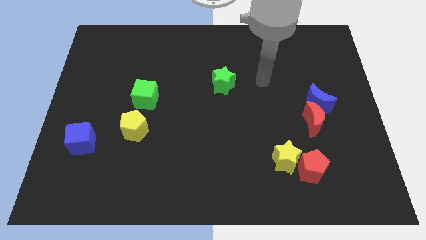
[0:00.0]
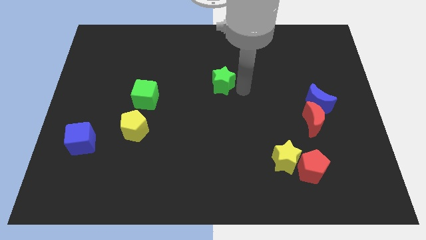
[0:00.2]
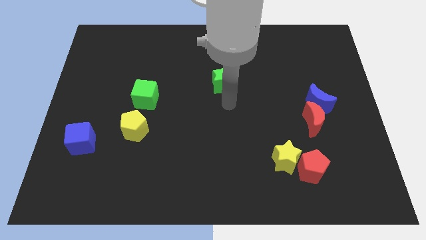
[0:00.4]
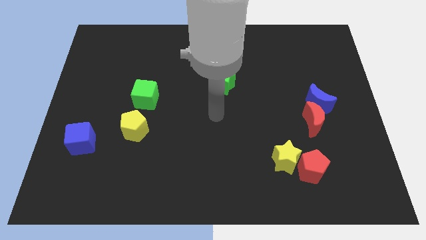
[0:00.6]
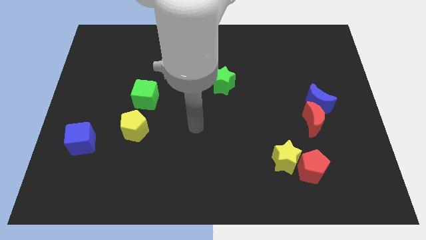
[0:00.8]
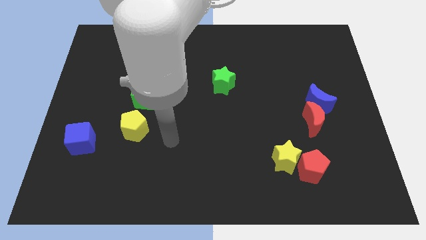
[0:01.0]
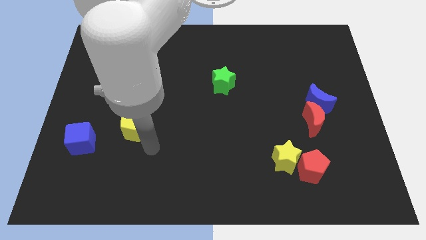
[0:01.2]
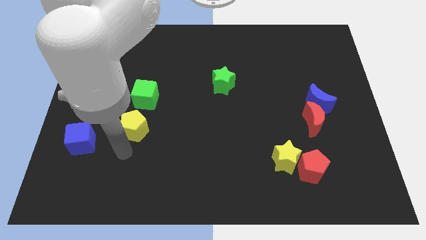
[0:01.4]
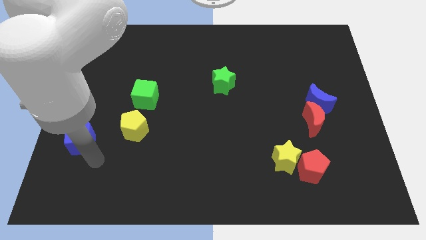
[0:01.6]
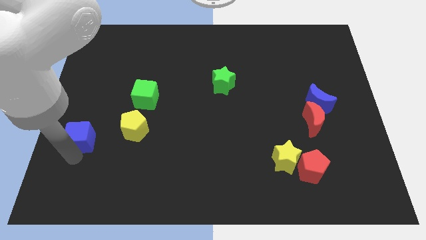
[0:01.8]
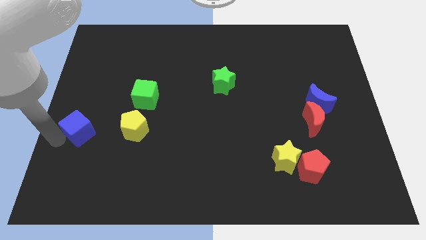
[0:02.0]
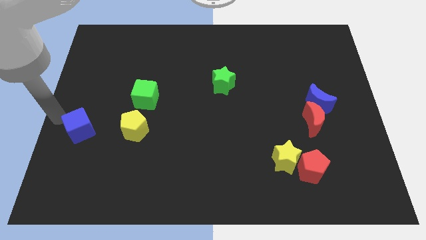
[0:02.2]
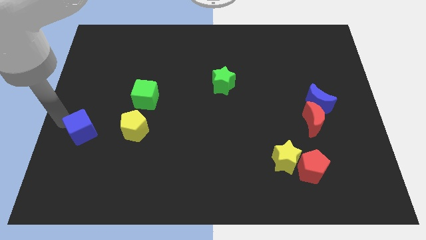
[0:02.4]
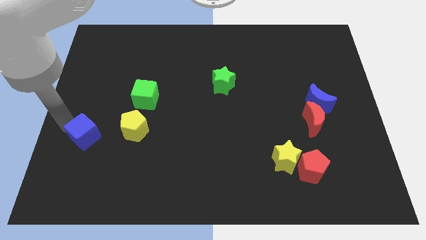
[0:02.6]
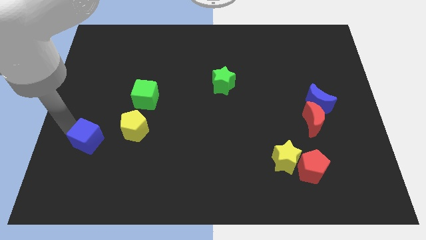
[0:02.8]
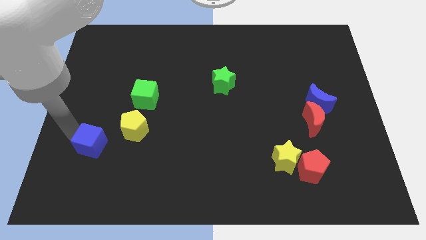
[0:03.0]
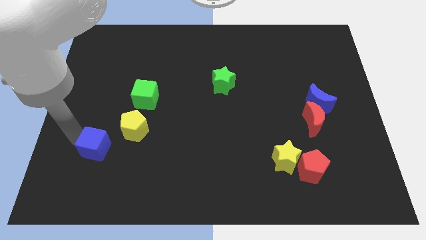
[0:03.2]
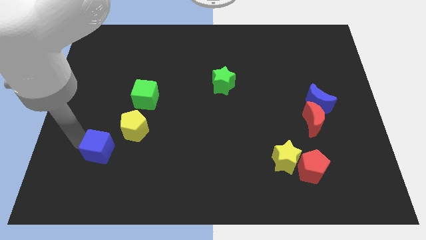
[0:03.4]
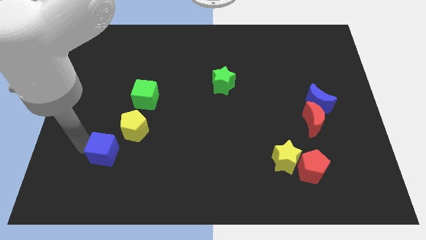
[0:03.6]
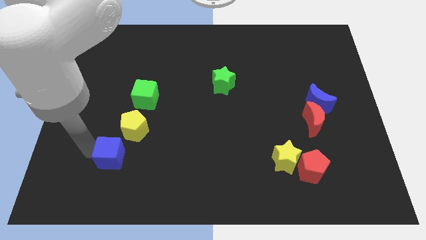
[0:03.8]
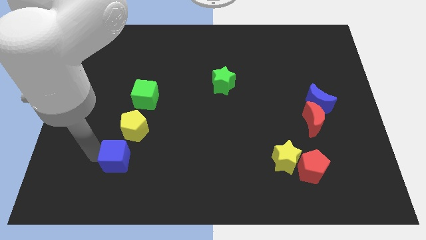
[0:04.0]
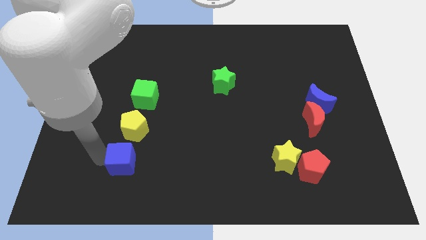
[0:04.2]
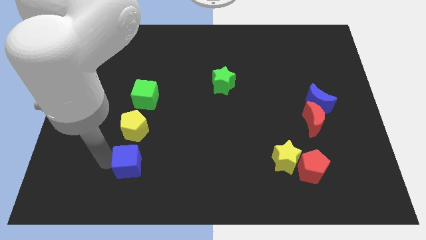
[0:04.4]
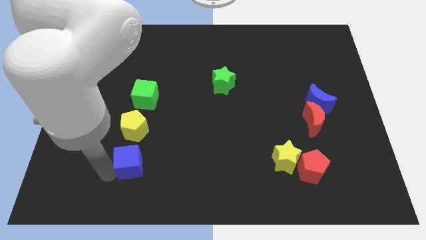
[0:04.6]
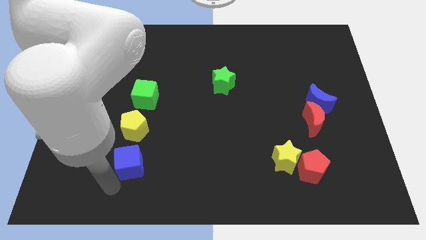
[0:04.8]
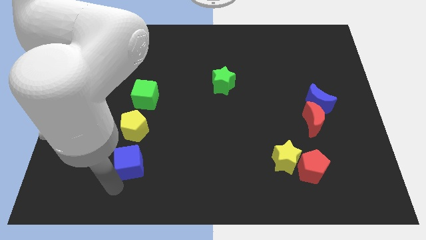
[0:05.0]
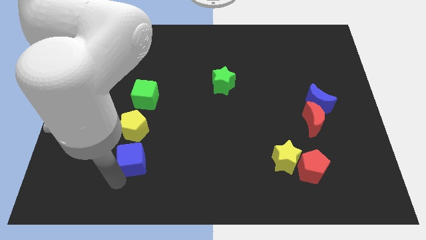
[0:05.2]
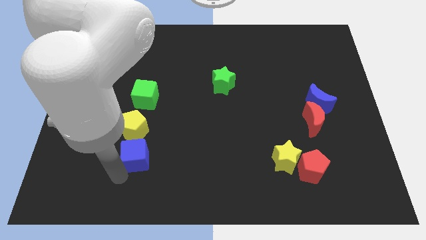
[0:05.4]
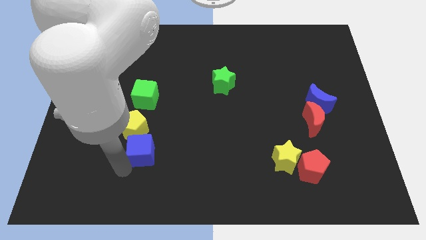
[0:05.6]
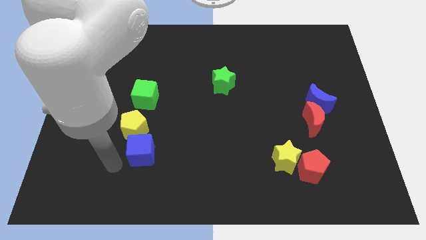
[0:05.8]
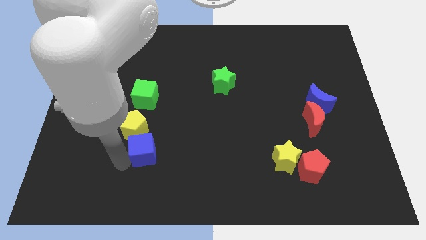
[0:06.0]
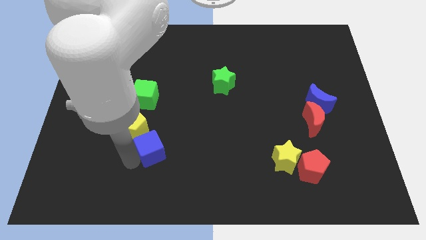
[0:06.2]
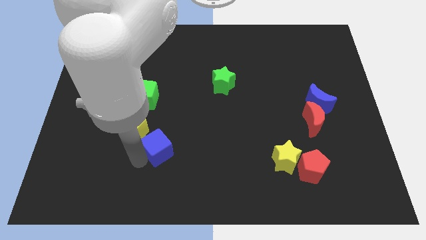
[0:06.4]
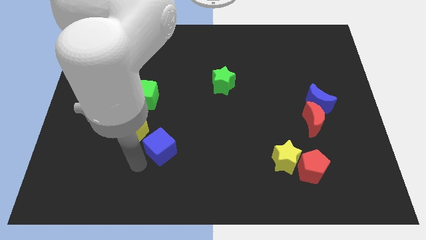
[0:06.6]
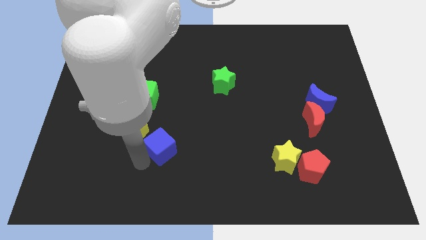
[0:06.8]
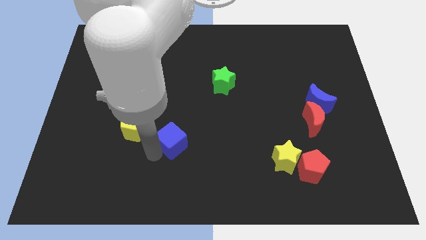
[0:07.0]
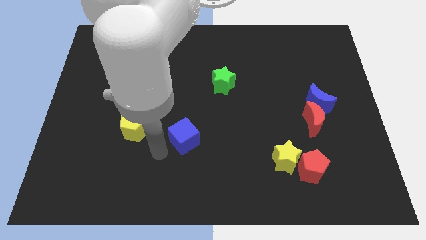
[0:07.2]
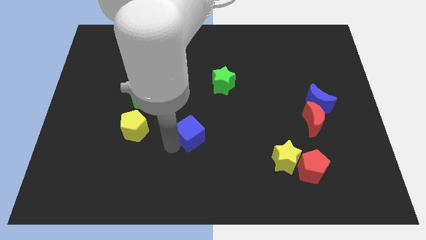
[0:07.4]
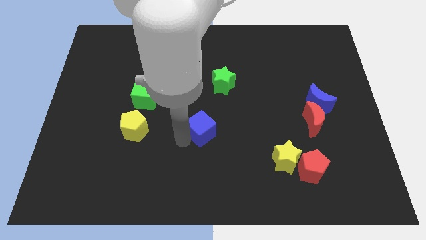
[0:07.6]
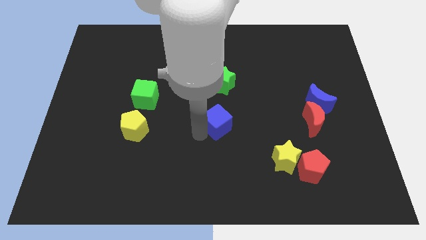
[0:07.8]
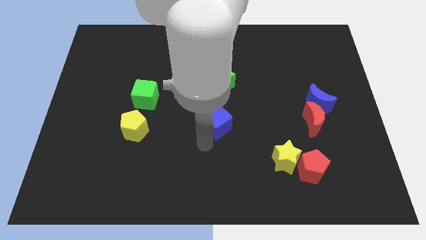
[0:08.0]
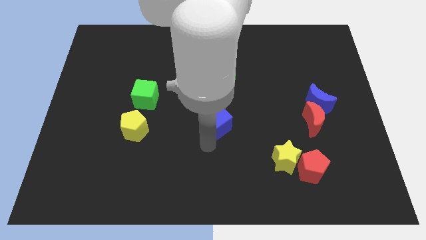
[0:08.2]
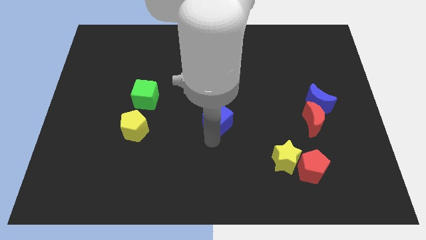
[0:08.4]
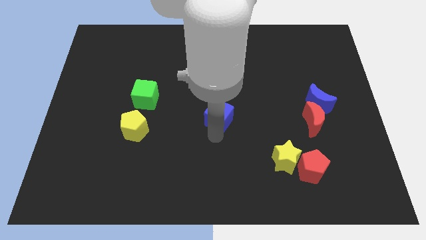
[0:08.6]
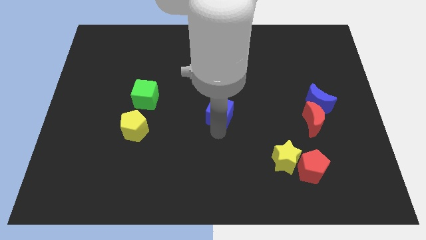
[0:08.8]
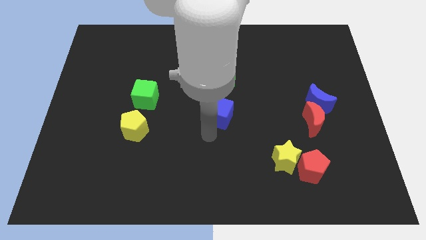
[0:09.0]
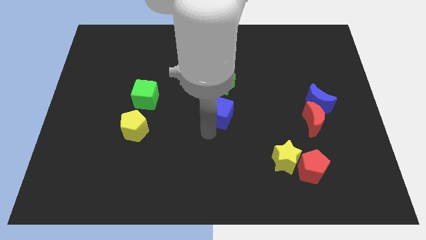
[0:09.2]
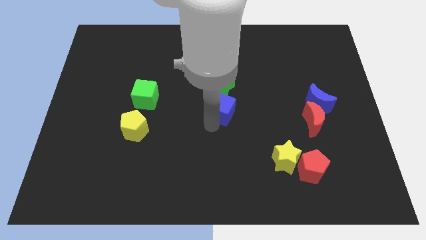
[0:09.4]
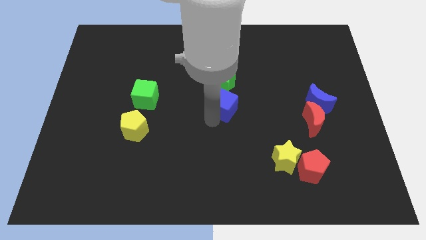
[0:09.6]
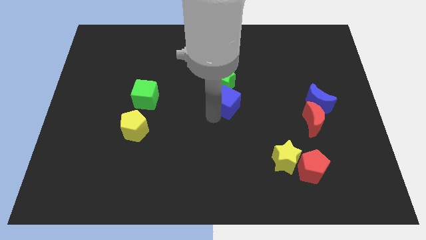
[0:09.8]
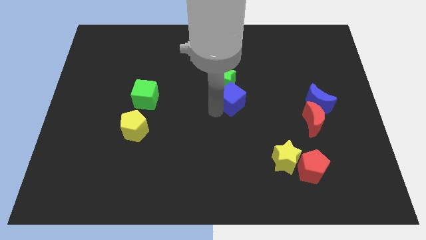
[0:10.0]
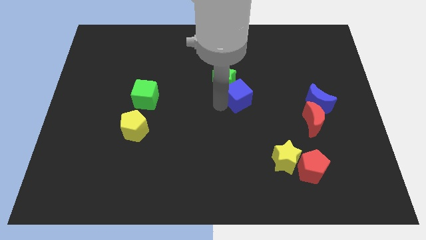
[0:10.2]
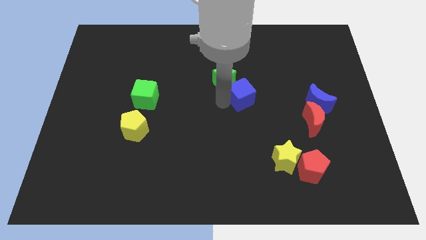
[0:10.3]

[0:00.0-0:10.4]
push the blue cube right of the green star

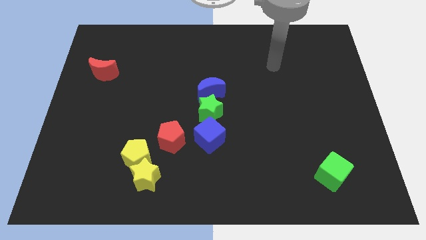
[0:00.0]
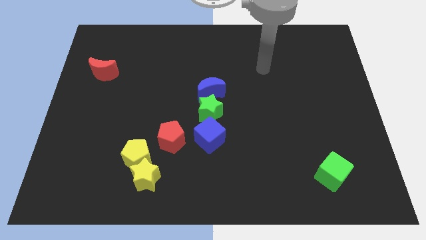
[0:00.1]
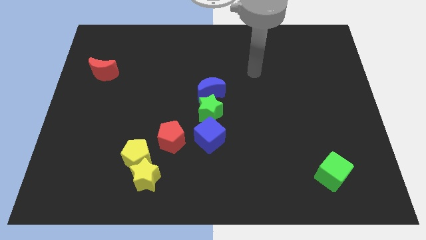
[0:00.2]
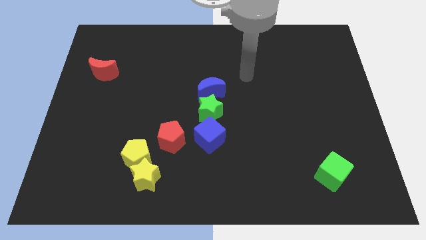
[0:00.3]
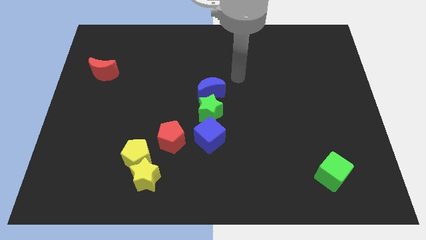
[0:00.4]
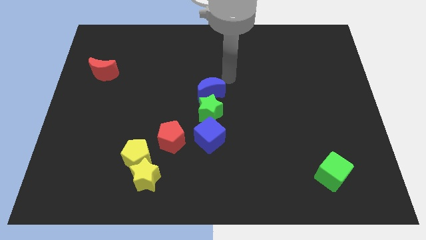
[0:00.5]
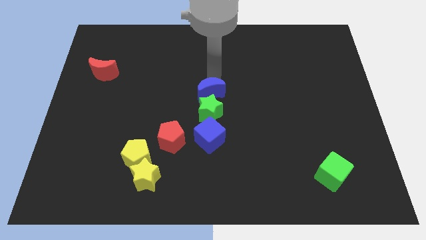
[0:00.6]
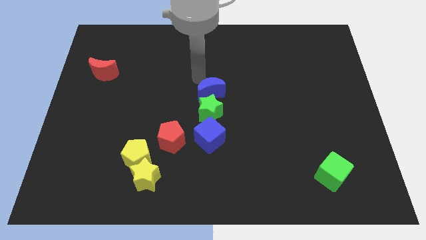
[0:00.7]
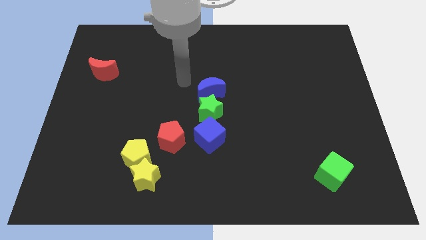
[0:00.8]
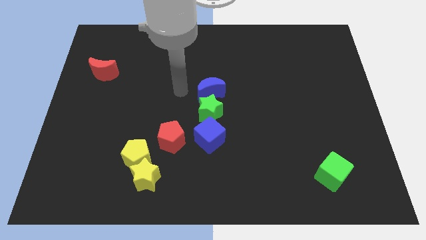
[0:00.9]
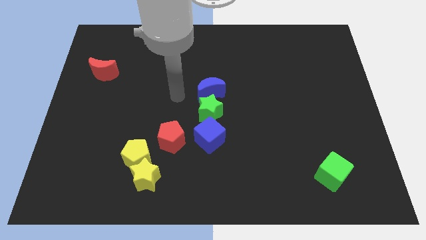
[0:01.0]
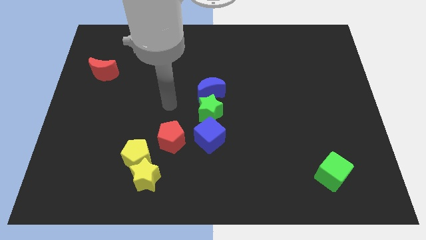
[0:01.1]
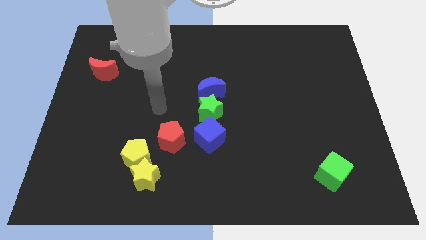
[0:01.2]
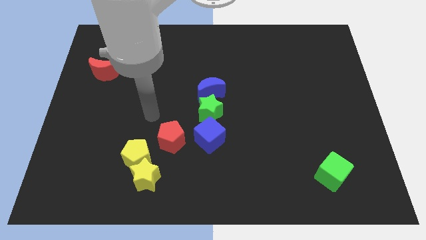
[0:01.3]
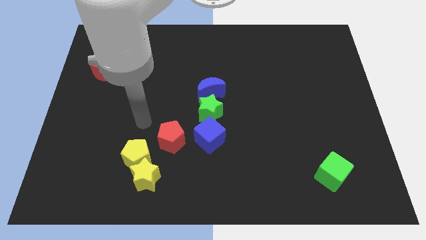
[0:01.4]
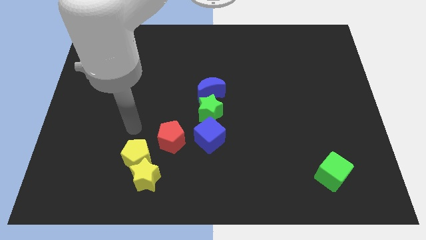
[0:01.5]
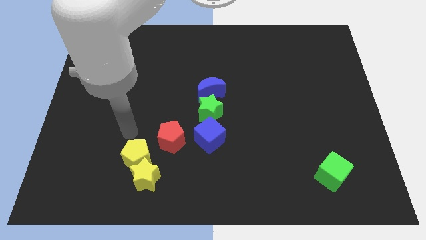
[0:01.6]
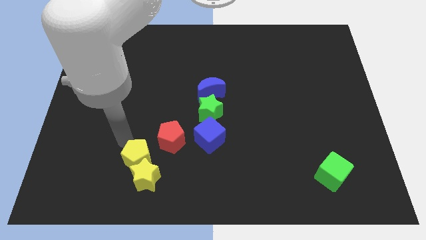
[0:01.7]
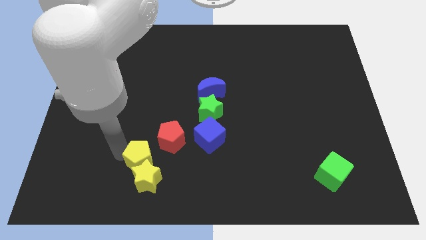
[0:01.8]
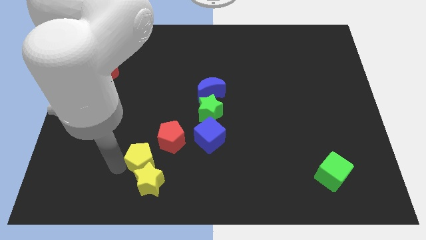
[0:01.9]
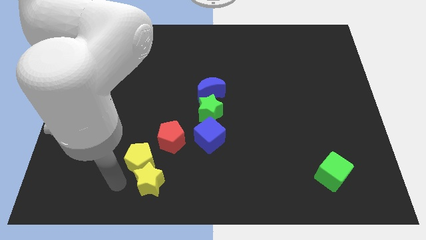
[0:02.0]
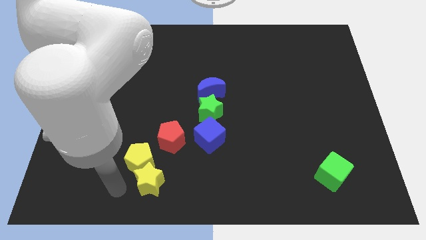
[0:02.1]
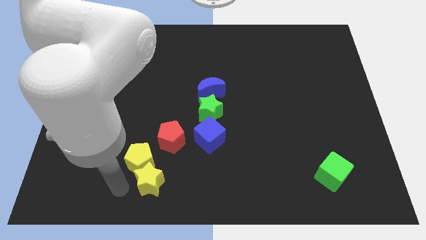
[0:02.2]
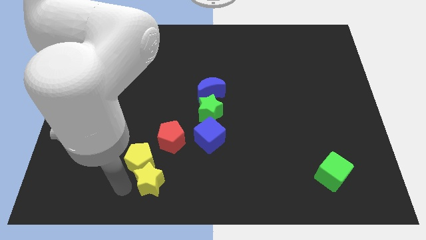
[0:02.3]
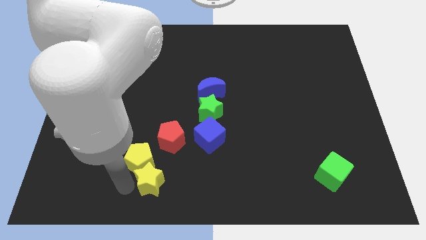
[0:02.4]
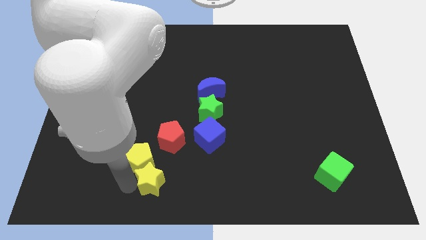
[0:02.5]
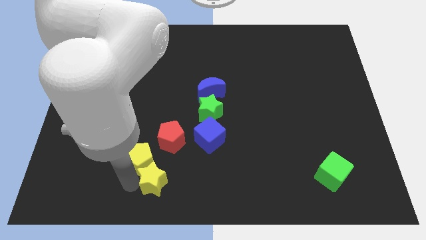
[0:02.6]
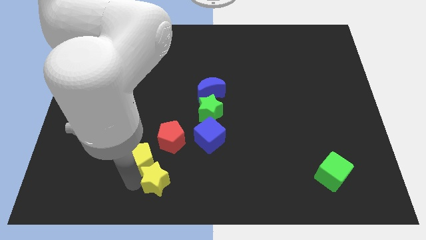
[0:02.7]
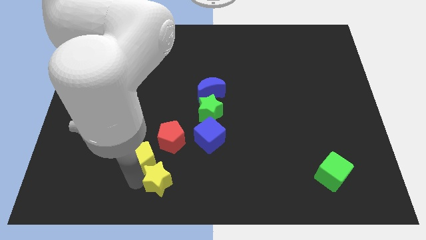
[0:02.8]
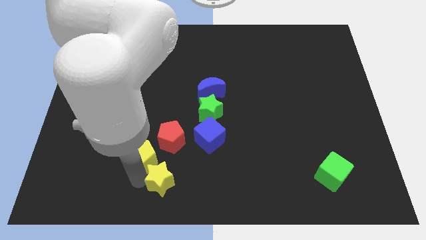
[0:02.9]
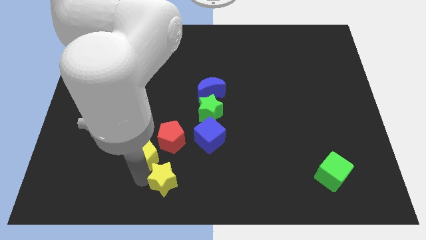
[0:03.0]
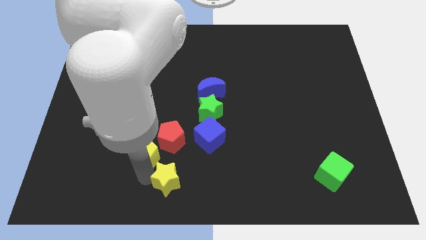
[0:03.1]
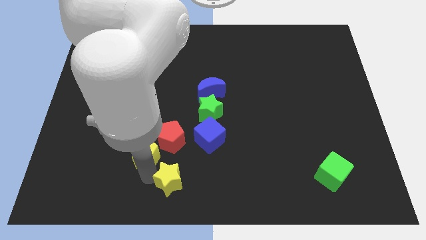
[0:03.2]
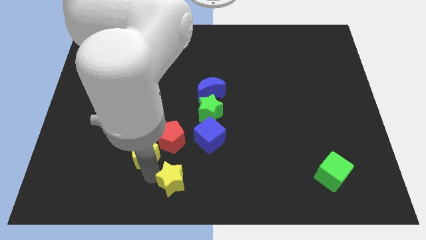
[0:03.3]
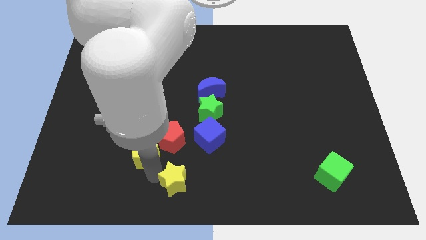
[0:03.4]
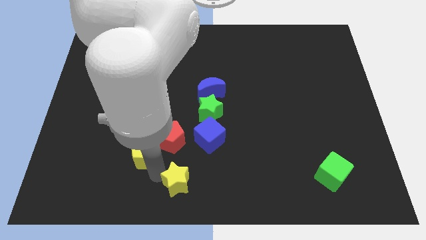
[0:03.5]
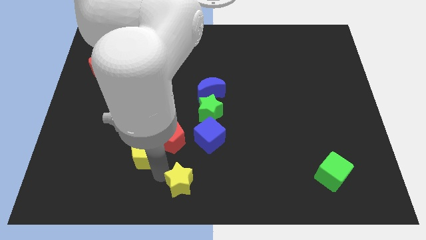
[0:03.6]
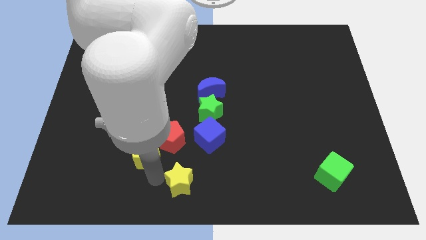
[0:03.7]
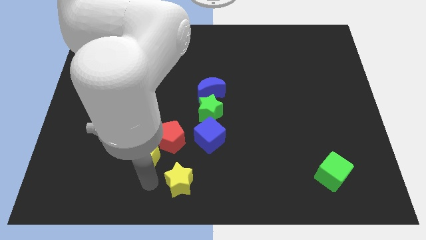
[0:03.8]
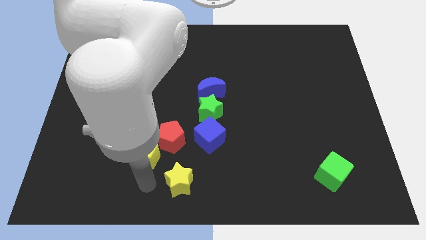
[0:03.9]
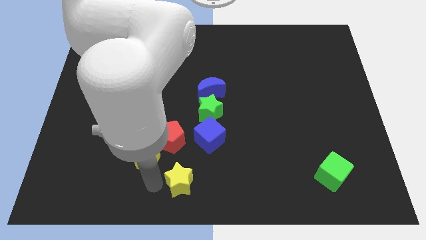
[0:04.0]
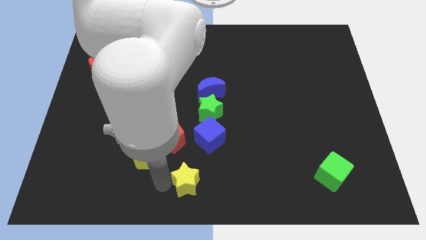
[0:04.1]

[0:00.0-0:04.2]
move the yellow star to the bottom side of the blue cube
